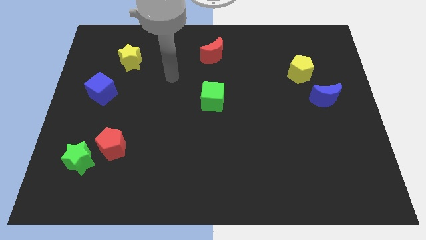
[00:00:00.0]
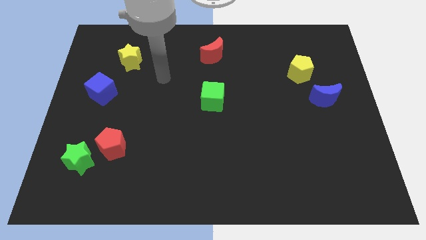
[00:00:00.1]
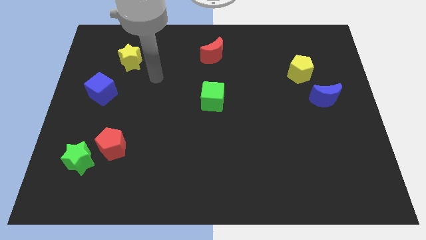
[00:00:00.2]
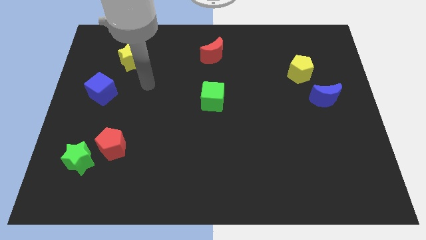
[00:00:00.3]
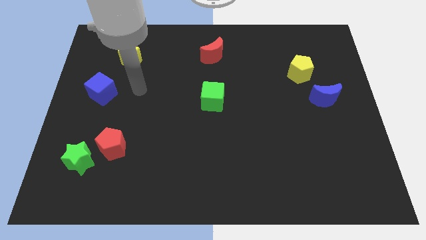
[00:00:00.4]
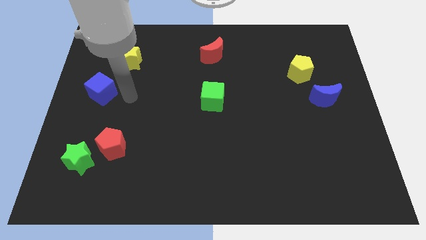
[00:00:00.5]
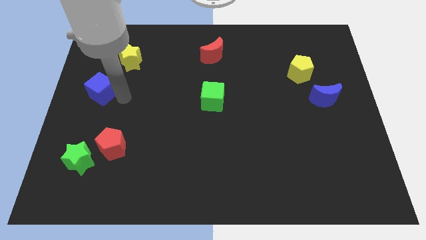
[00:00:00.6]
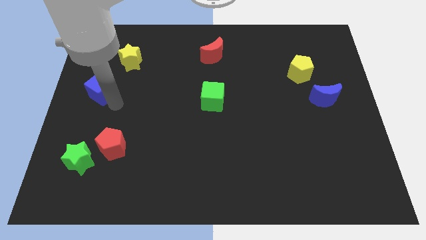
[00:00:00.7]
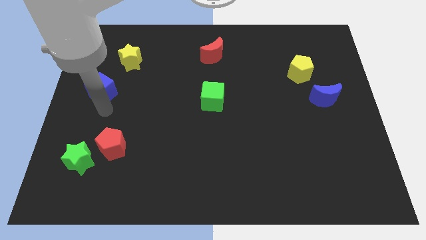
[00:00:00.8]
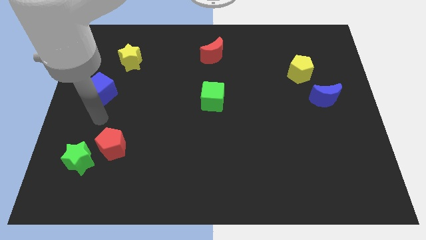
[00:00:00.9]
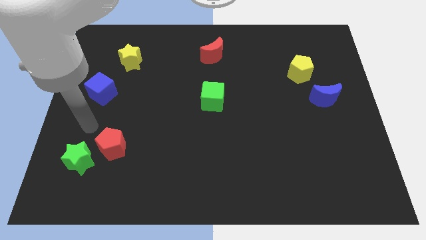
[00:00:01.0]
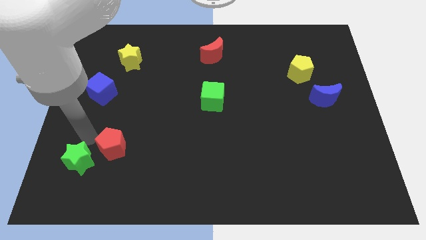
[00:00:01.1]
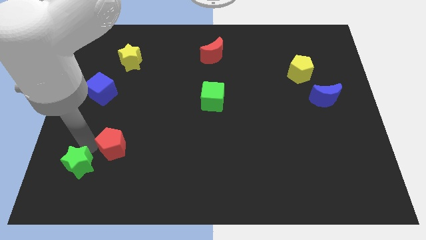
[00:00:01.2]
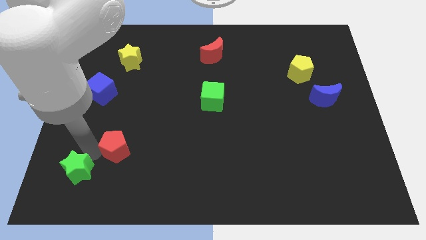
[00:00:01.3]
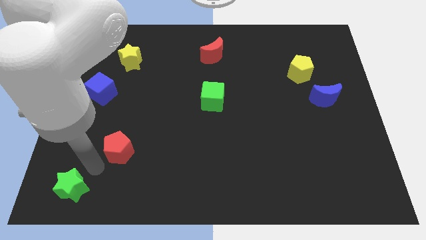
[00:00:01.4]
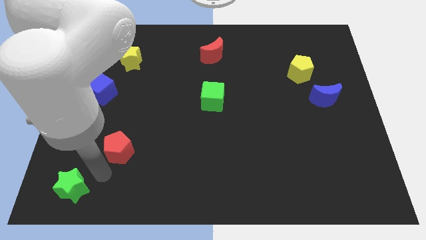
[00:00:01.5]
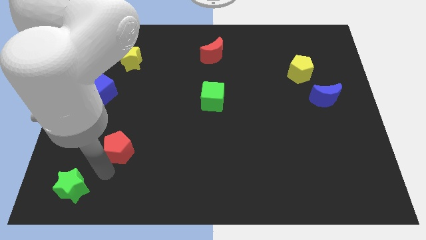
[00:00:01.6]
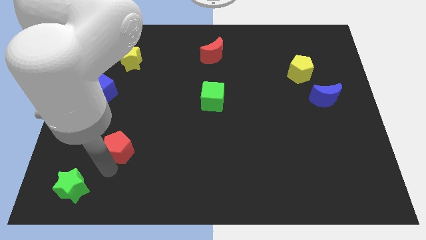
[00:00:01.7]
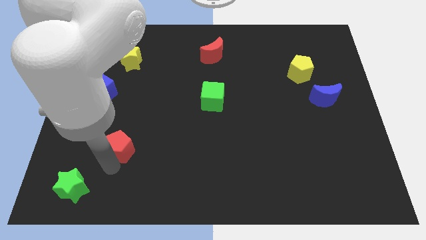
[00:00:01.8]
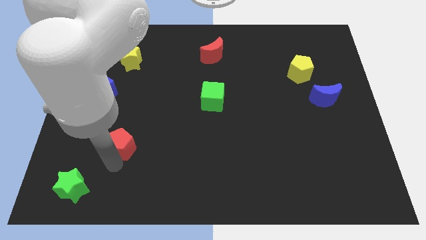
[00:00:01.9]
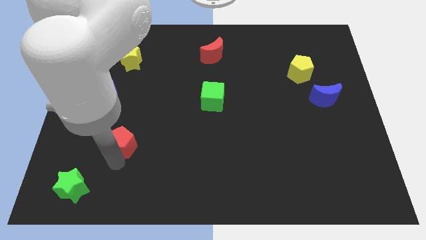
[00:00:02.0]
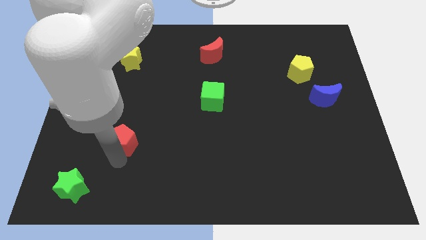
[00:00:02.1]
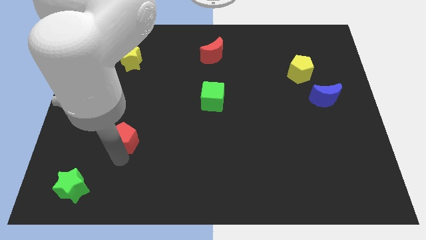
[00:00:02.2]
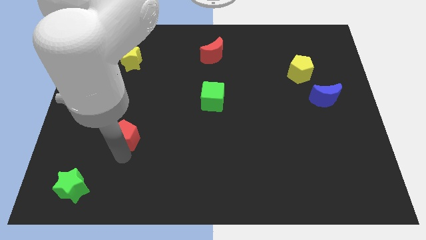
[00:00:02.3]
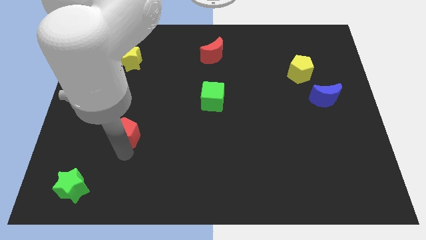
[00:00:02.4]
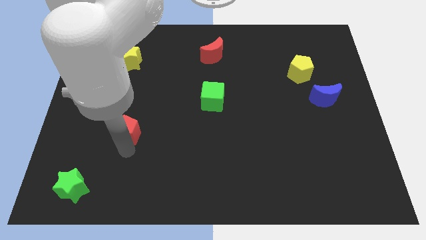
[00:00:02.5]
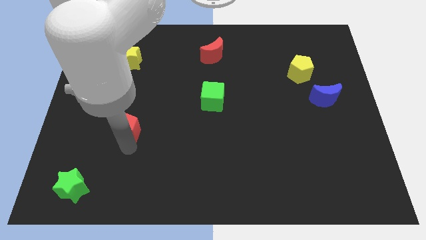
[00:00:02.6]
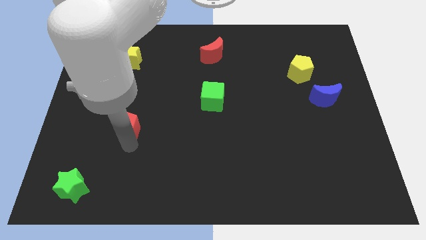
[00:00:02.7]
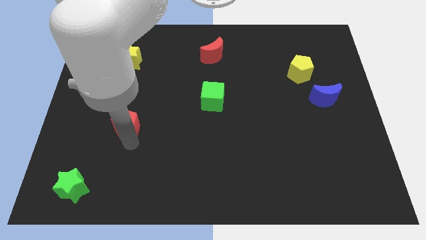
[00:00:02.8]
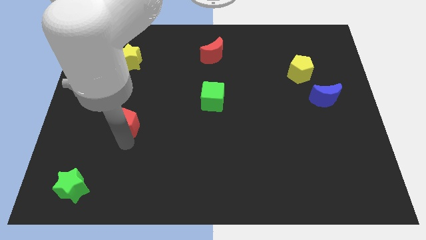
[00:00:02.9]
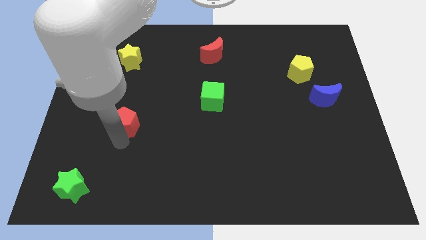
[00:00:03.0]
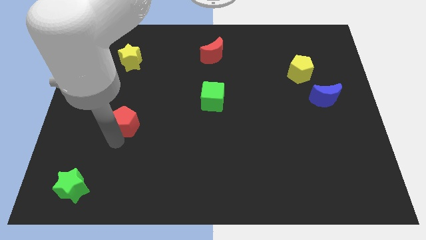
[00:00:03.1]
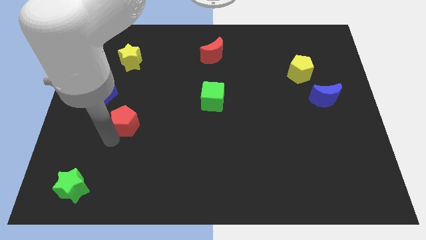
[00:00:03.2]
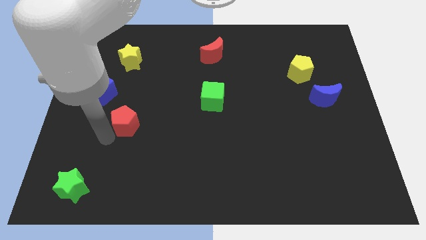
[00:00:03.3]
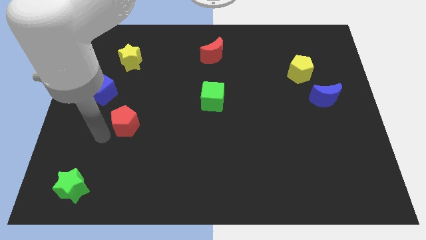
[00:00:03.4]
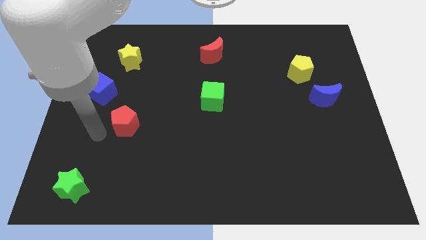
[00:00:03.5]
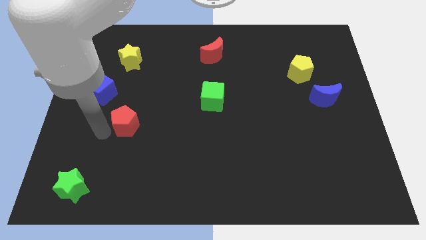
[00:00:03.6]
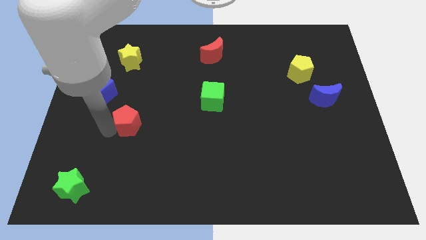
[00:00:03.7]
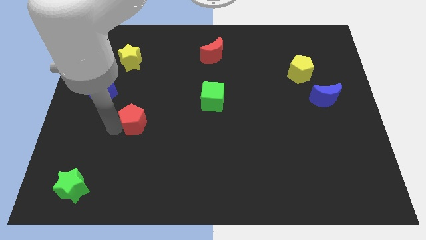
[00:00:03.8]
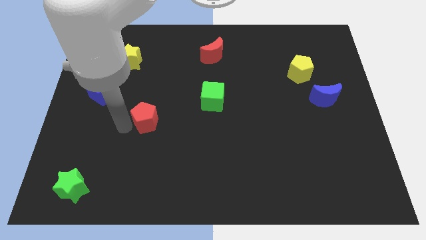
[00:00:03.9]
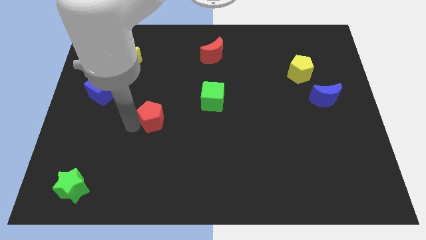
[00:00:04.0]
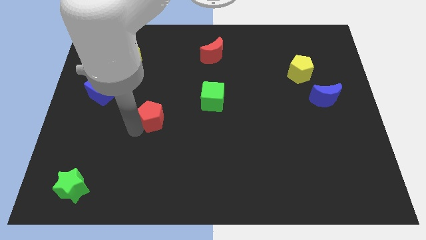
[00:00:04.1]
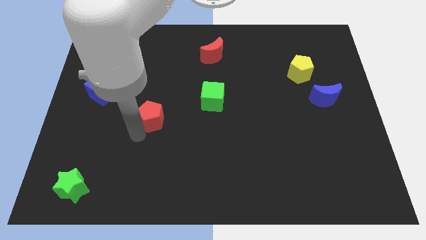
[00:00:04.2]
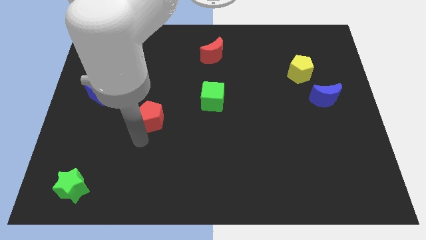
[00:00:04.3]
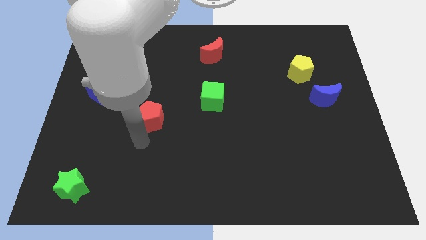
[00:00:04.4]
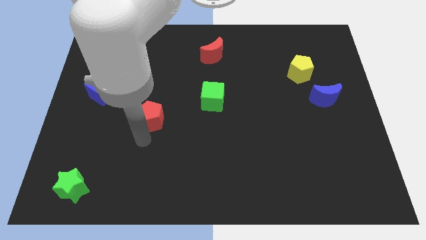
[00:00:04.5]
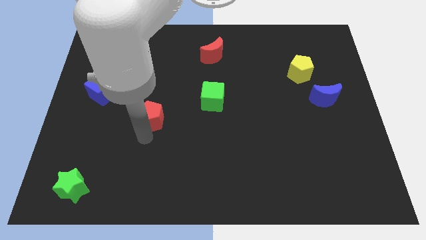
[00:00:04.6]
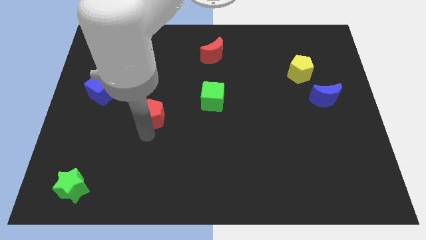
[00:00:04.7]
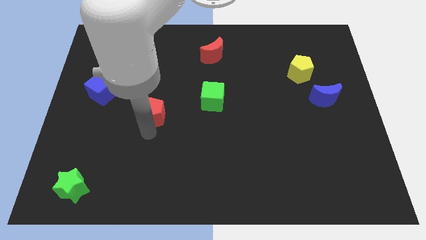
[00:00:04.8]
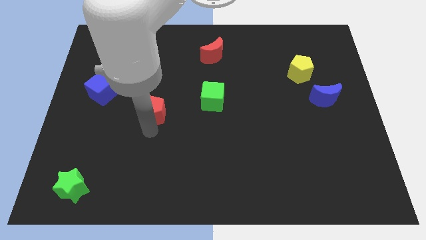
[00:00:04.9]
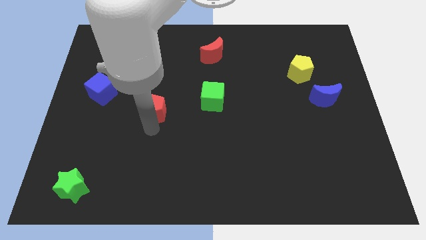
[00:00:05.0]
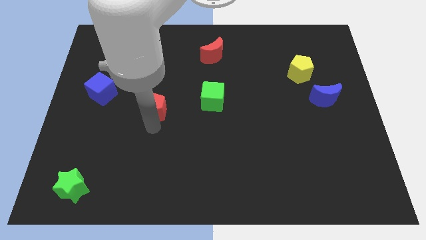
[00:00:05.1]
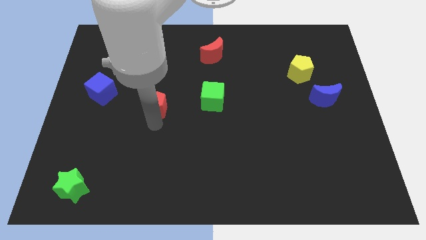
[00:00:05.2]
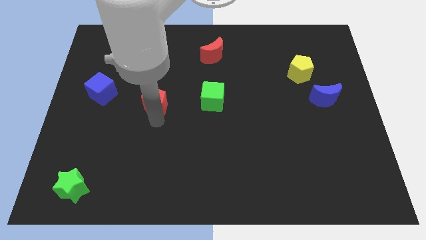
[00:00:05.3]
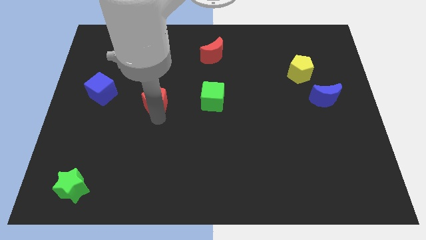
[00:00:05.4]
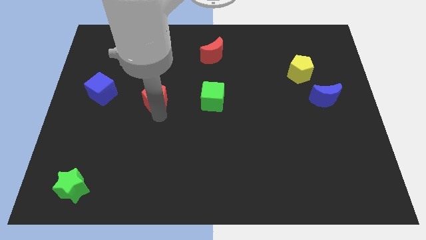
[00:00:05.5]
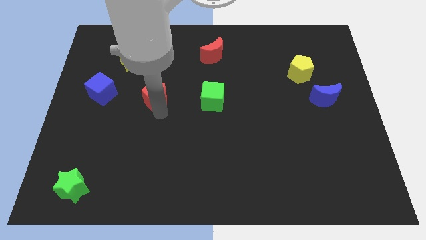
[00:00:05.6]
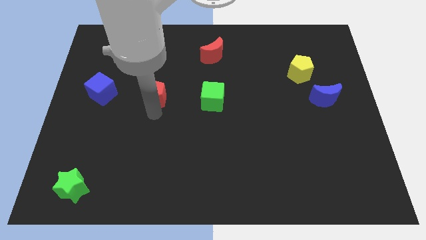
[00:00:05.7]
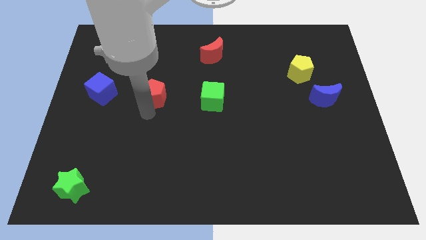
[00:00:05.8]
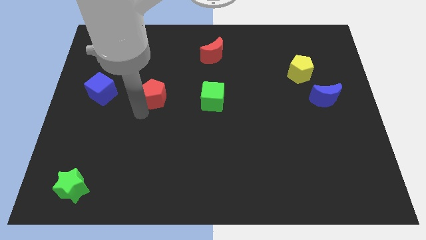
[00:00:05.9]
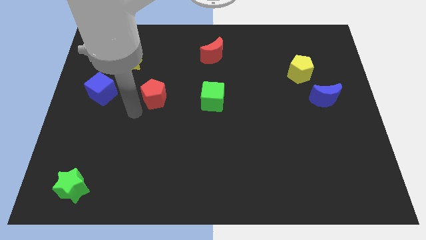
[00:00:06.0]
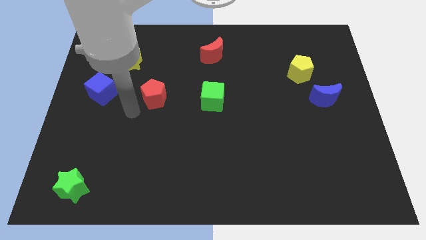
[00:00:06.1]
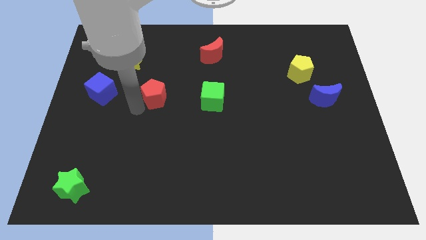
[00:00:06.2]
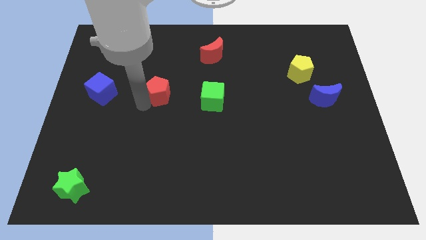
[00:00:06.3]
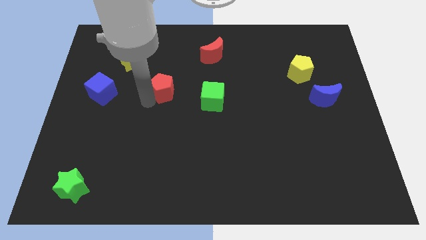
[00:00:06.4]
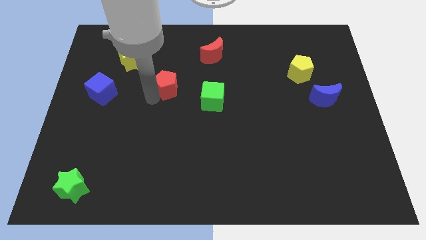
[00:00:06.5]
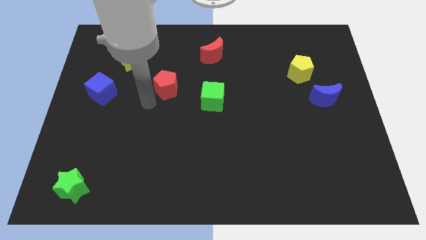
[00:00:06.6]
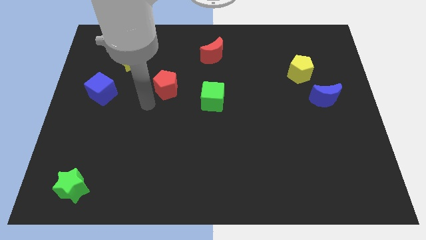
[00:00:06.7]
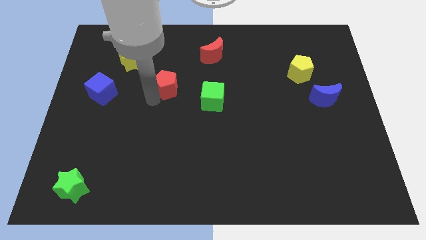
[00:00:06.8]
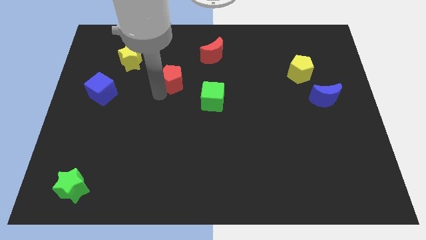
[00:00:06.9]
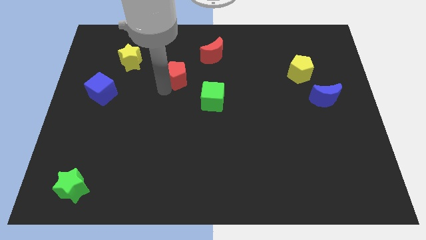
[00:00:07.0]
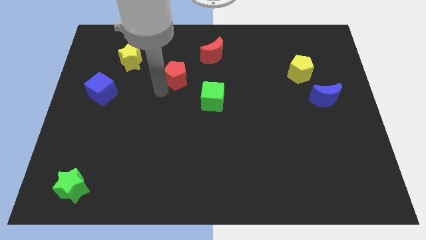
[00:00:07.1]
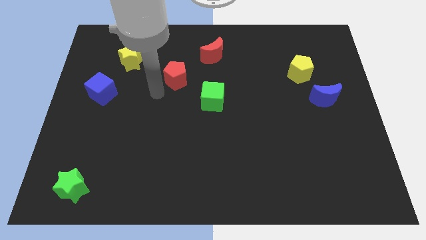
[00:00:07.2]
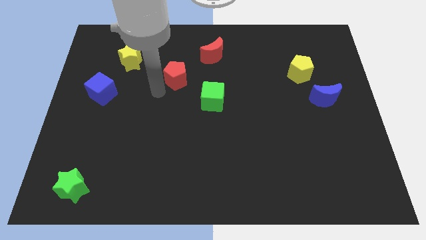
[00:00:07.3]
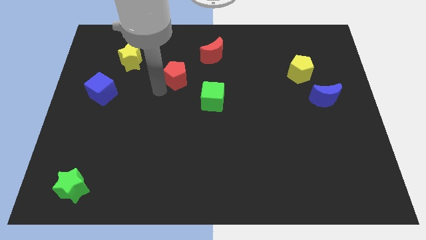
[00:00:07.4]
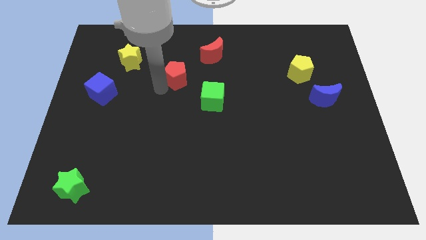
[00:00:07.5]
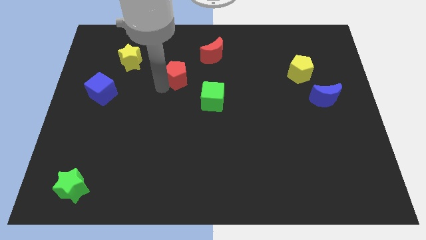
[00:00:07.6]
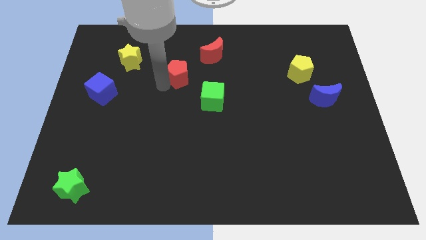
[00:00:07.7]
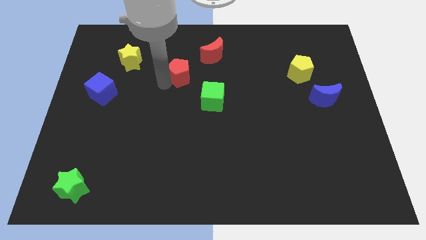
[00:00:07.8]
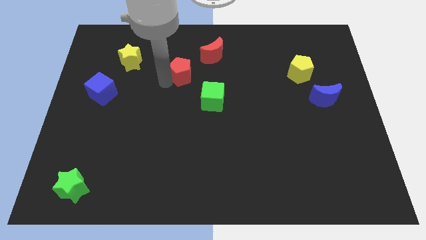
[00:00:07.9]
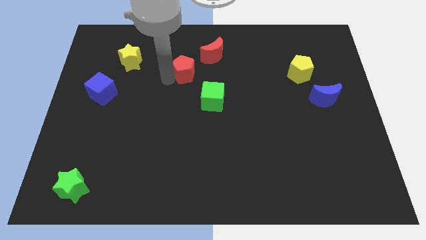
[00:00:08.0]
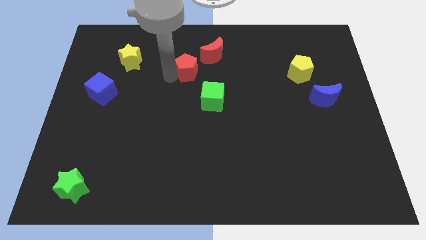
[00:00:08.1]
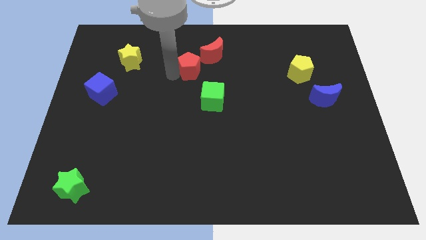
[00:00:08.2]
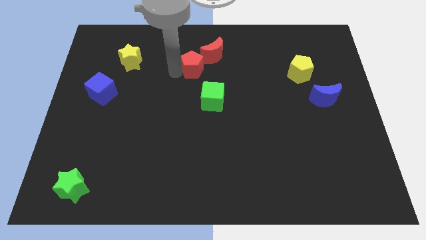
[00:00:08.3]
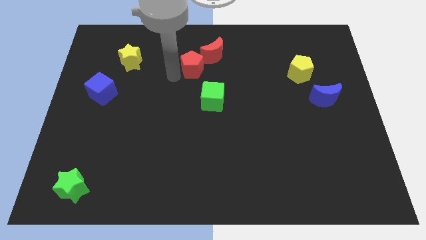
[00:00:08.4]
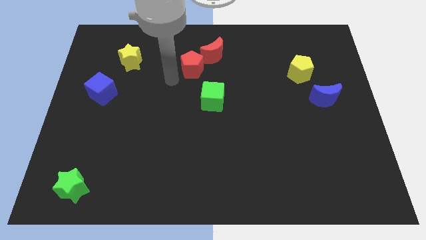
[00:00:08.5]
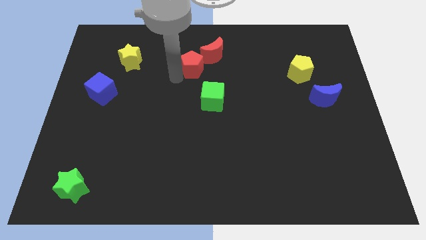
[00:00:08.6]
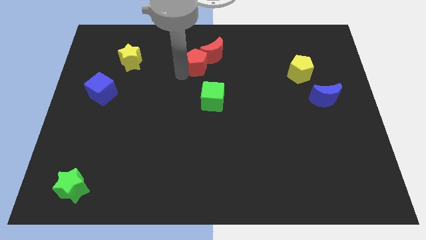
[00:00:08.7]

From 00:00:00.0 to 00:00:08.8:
move the red pentagon next to the red moon
